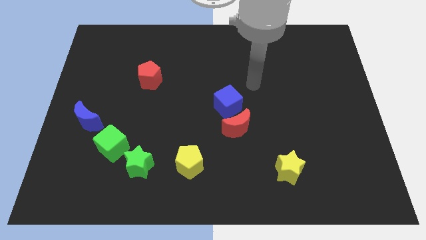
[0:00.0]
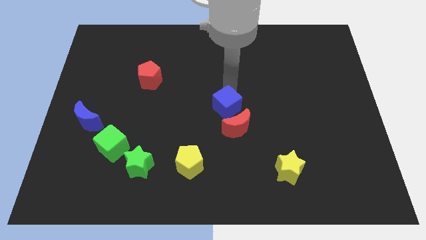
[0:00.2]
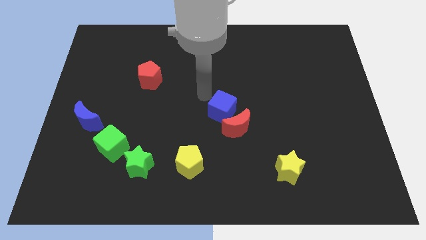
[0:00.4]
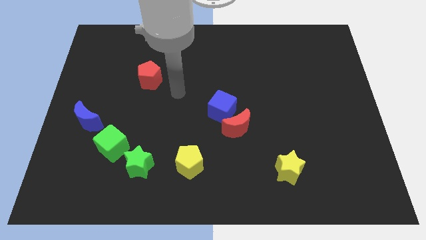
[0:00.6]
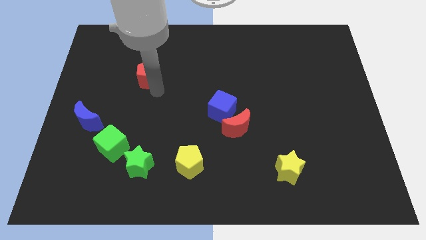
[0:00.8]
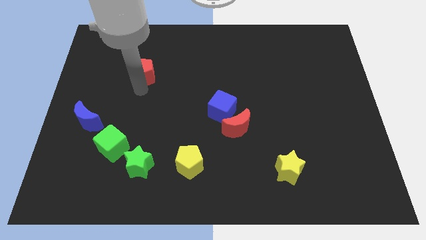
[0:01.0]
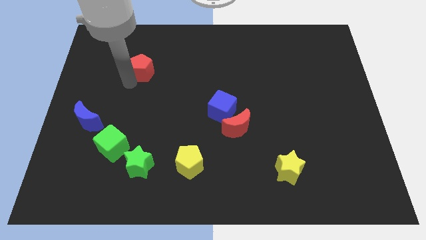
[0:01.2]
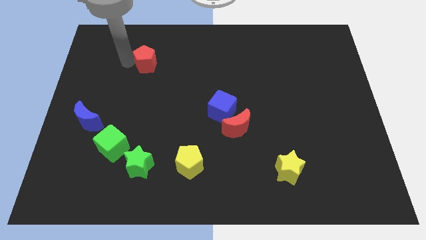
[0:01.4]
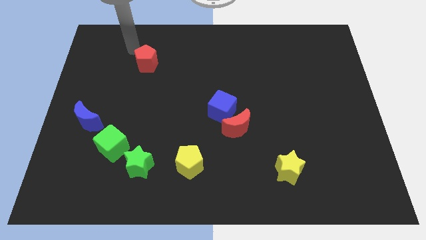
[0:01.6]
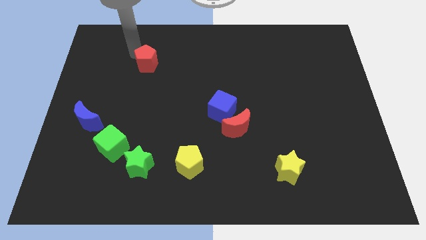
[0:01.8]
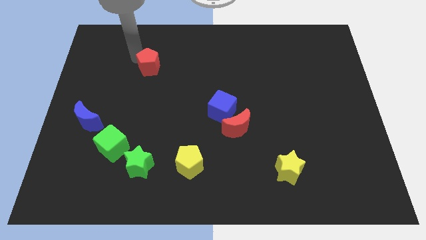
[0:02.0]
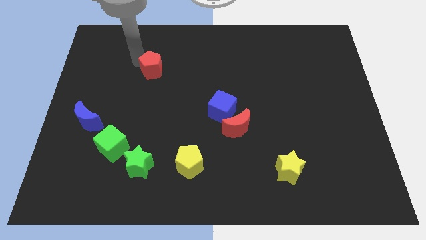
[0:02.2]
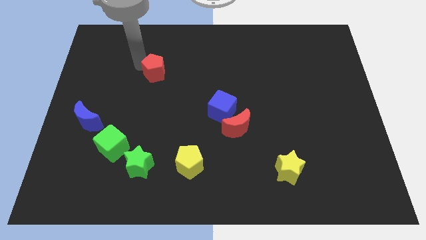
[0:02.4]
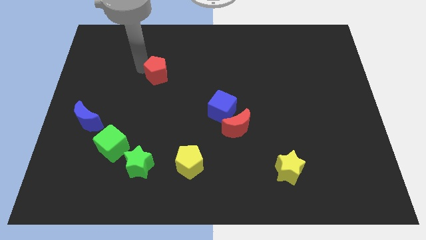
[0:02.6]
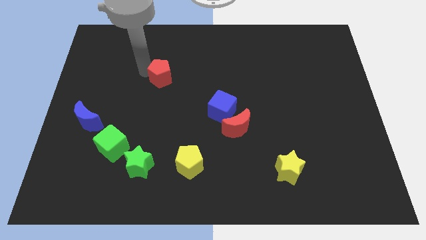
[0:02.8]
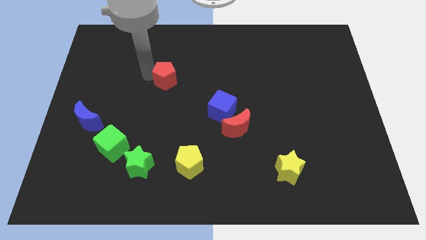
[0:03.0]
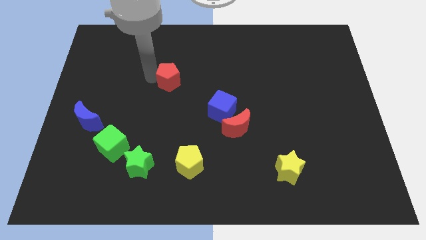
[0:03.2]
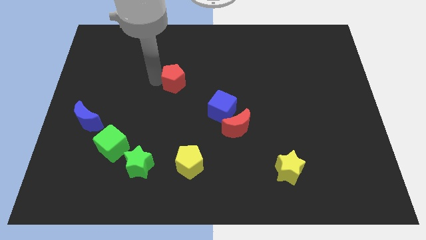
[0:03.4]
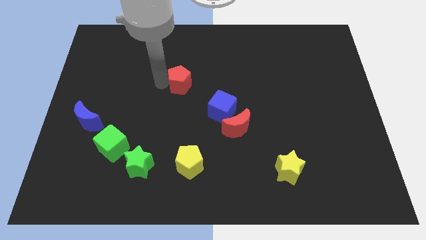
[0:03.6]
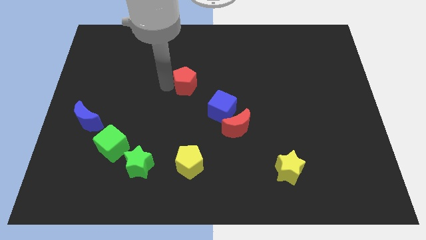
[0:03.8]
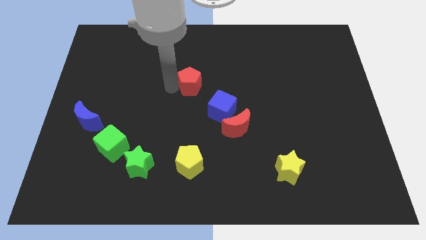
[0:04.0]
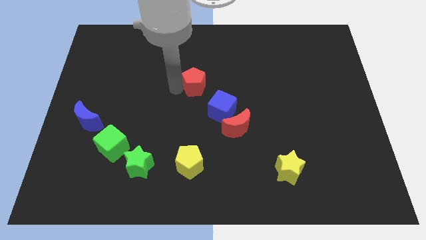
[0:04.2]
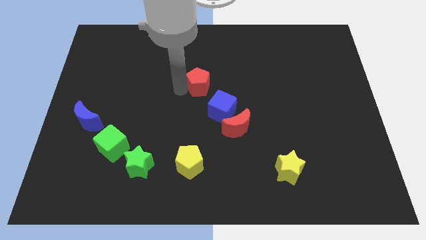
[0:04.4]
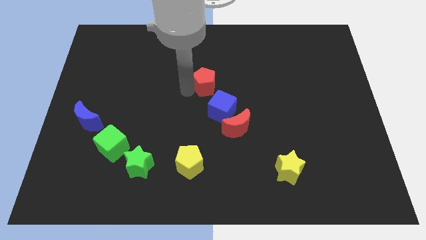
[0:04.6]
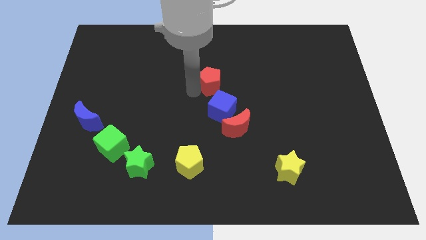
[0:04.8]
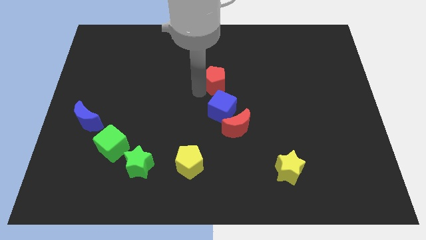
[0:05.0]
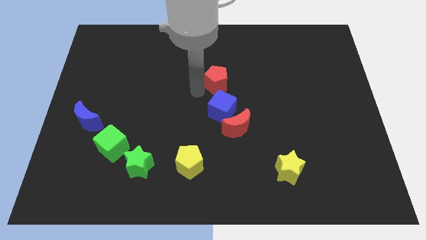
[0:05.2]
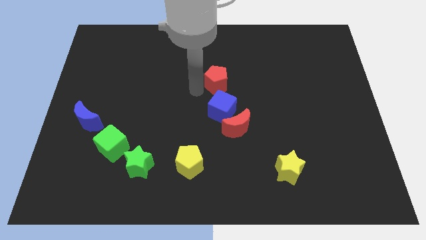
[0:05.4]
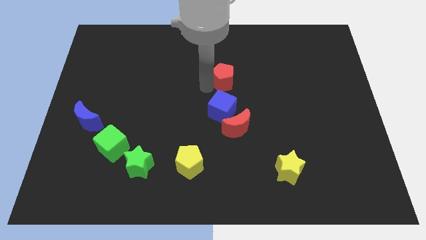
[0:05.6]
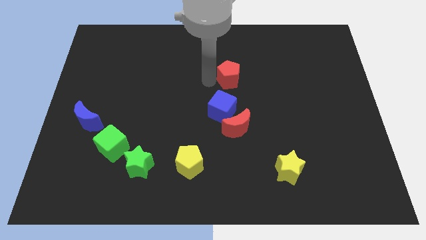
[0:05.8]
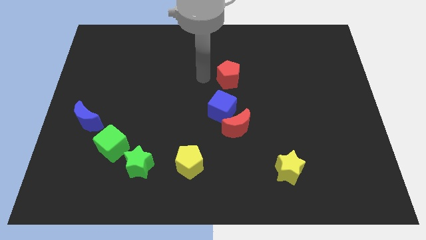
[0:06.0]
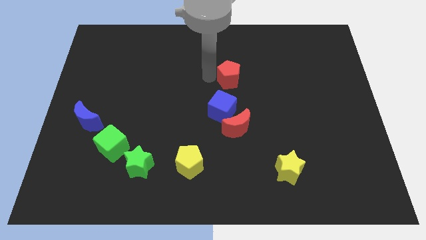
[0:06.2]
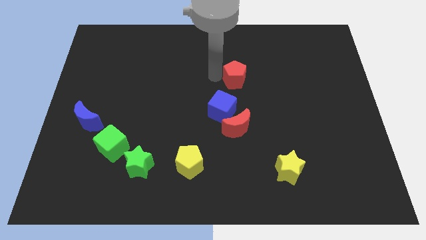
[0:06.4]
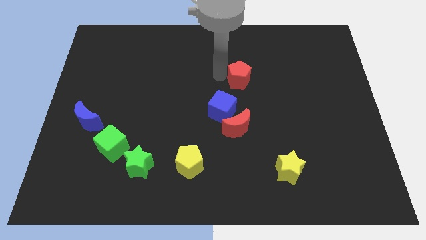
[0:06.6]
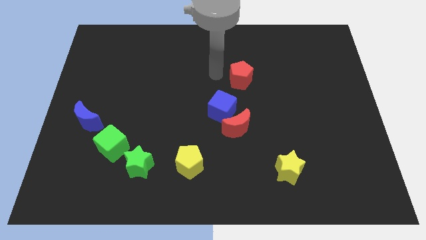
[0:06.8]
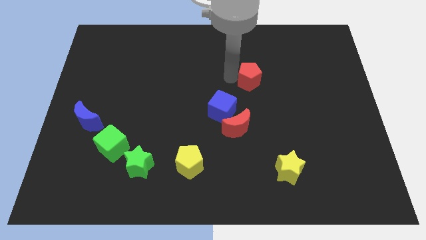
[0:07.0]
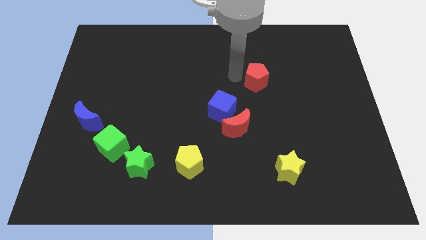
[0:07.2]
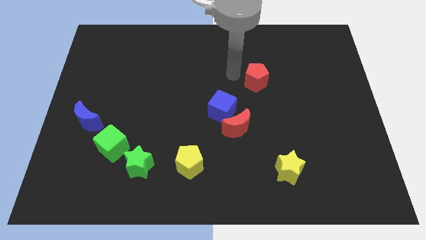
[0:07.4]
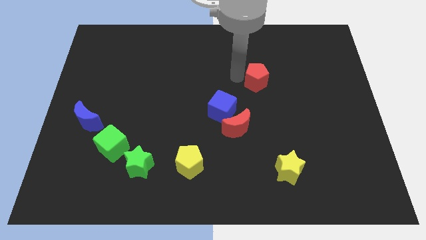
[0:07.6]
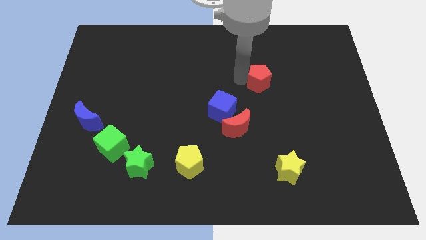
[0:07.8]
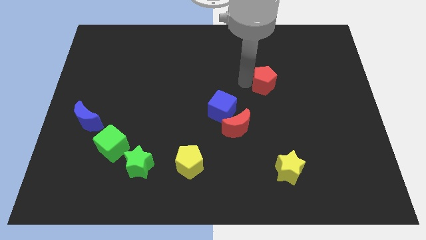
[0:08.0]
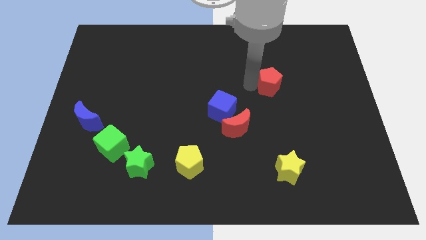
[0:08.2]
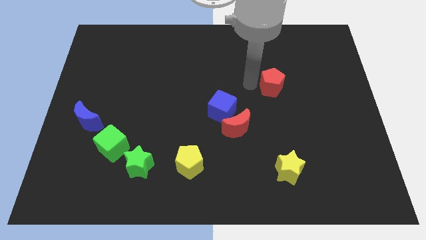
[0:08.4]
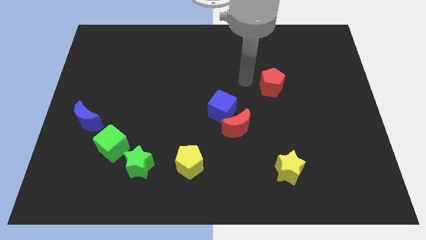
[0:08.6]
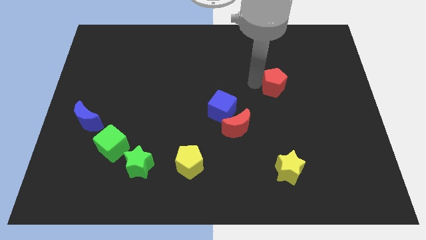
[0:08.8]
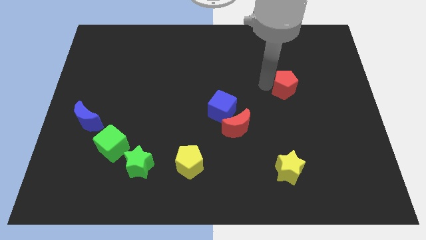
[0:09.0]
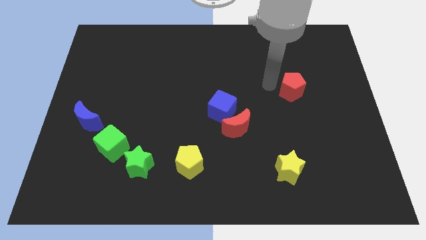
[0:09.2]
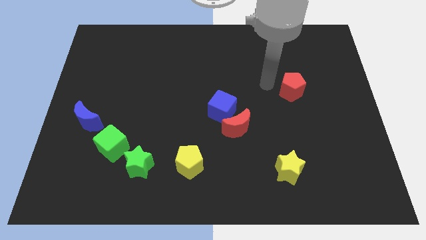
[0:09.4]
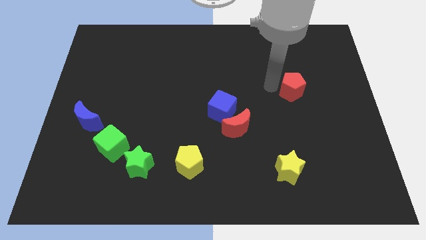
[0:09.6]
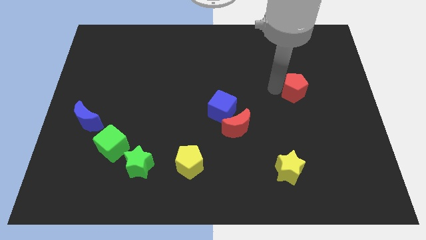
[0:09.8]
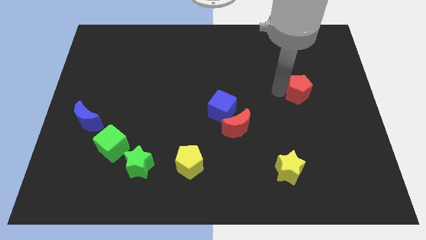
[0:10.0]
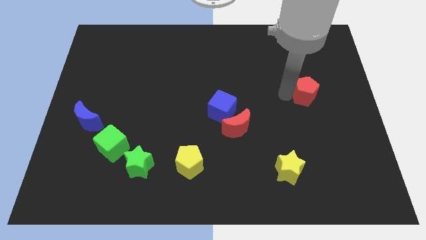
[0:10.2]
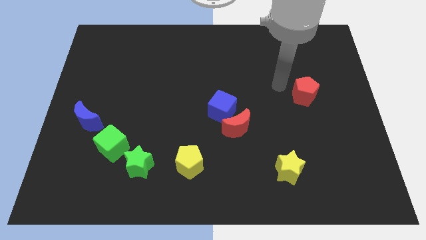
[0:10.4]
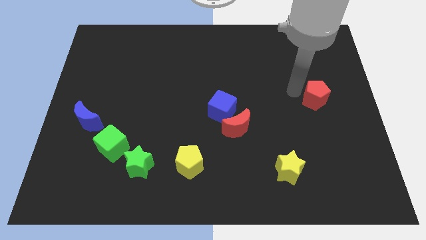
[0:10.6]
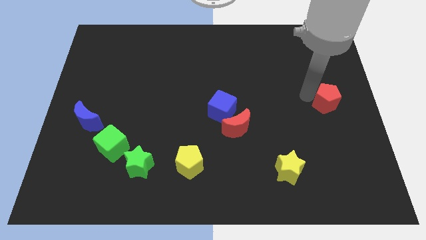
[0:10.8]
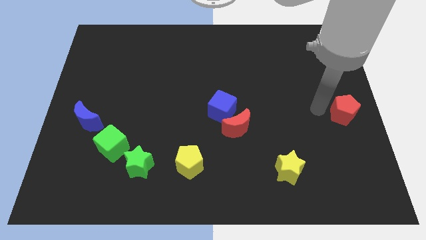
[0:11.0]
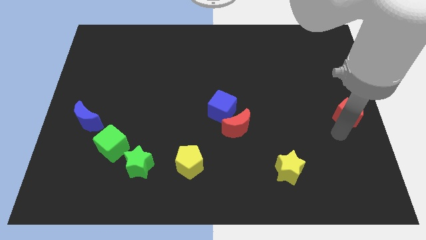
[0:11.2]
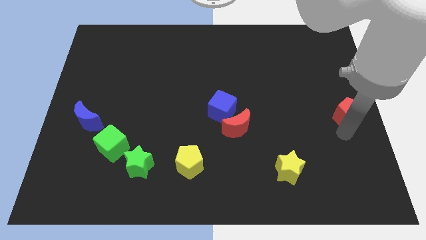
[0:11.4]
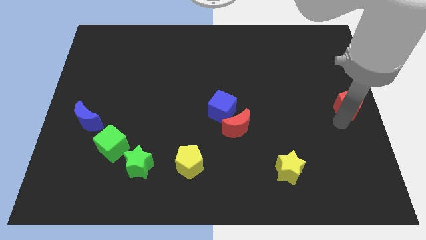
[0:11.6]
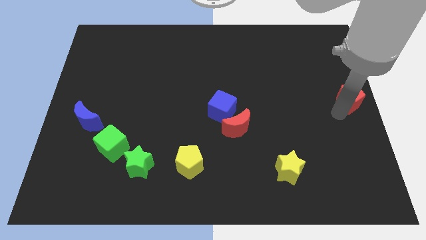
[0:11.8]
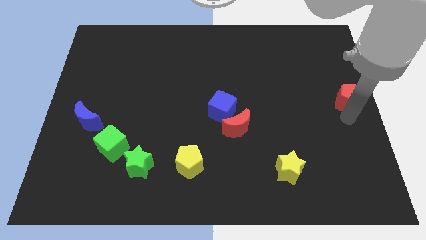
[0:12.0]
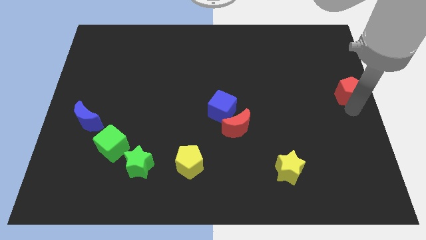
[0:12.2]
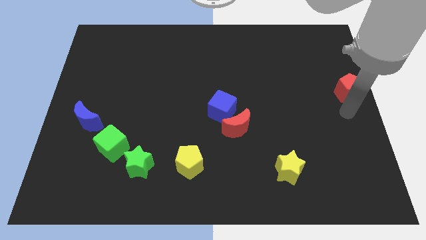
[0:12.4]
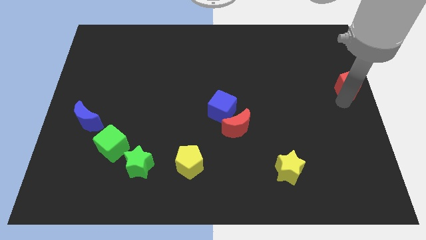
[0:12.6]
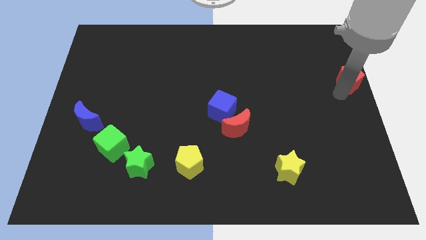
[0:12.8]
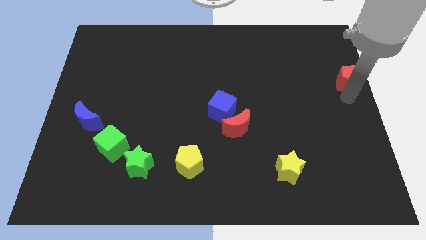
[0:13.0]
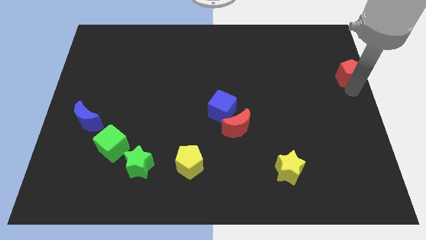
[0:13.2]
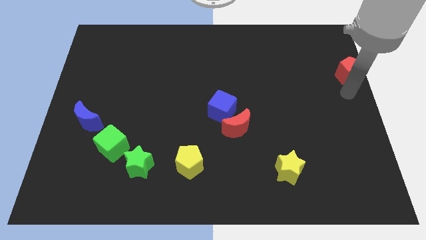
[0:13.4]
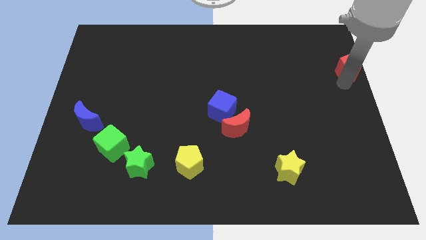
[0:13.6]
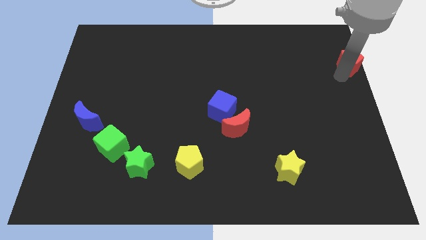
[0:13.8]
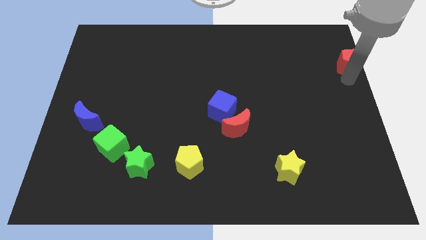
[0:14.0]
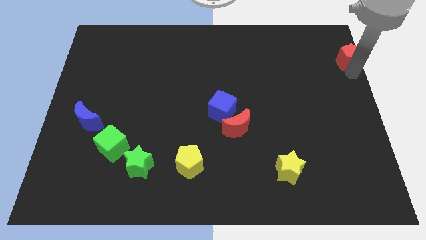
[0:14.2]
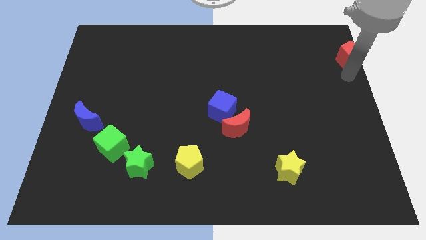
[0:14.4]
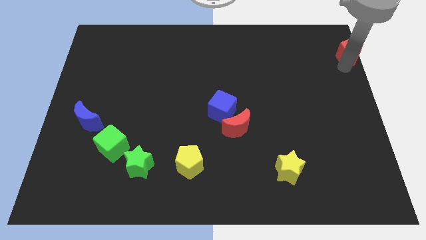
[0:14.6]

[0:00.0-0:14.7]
push the red pentagon to the top right corner
